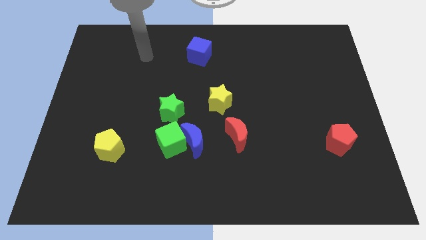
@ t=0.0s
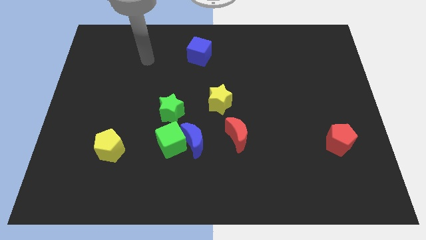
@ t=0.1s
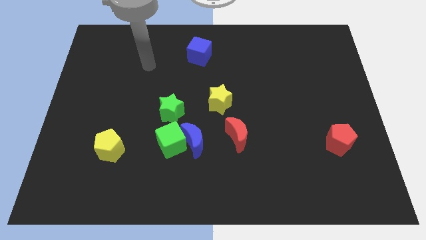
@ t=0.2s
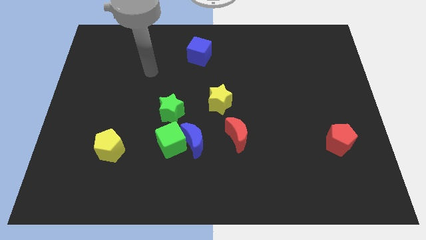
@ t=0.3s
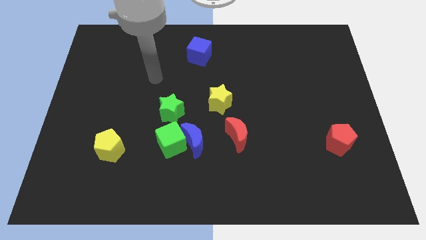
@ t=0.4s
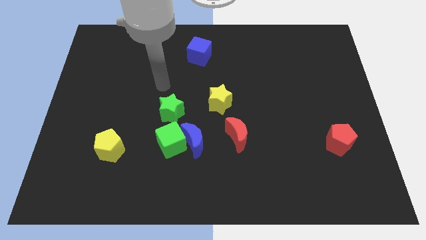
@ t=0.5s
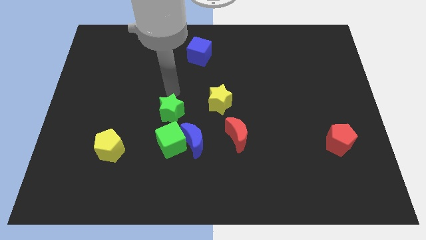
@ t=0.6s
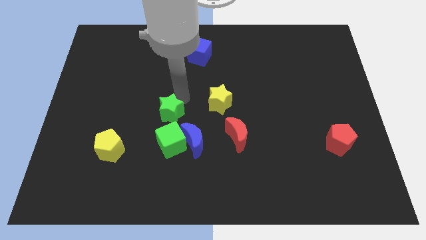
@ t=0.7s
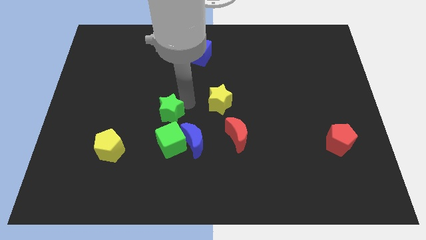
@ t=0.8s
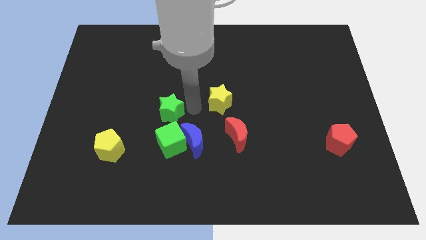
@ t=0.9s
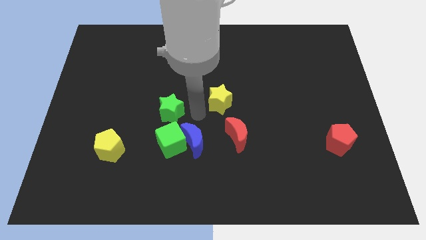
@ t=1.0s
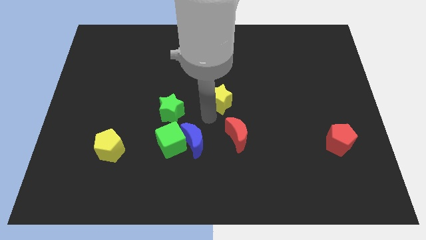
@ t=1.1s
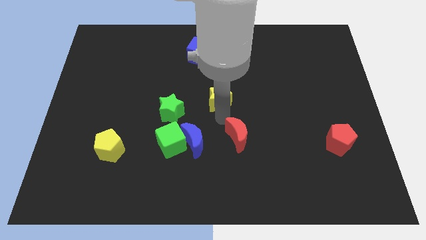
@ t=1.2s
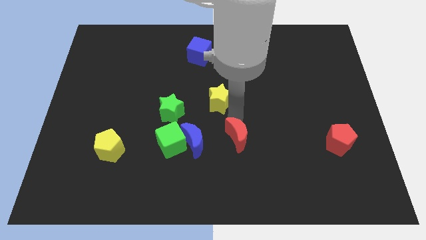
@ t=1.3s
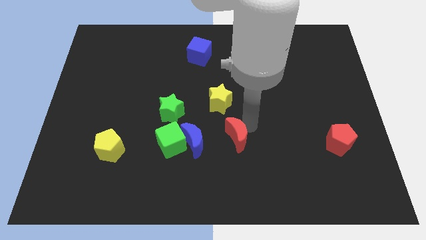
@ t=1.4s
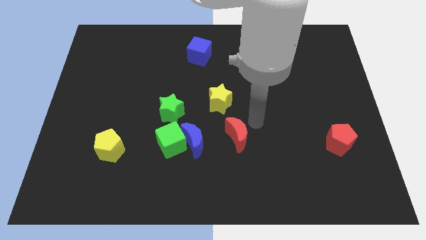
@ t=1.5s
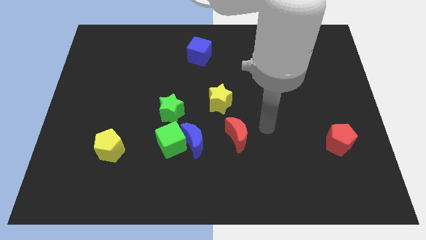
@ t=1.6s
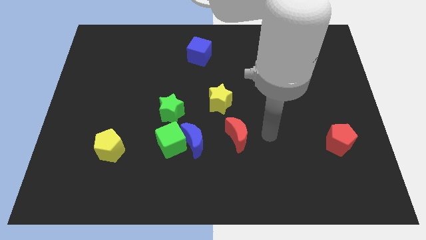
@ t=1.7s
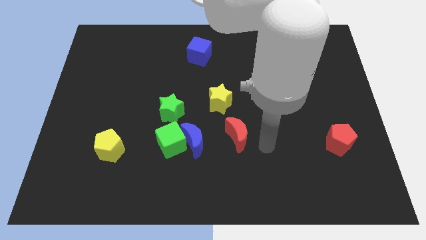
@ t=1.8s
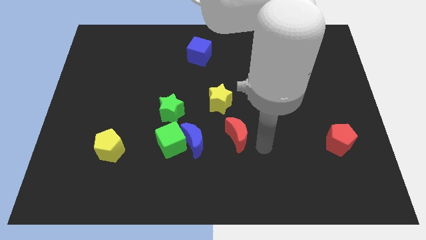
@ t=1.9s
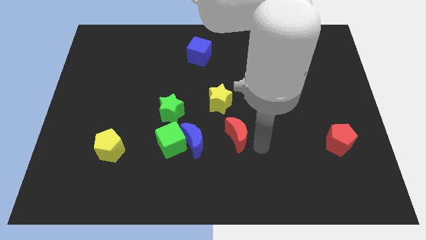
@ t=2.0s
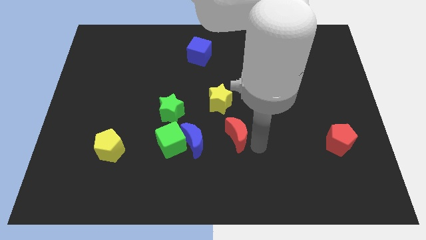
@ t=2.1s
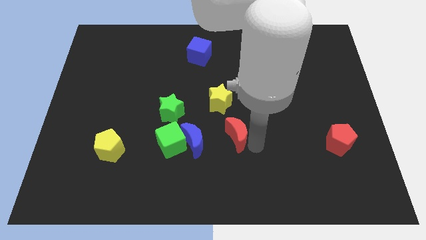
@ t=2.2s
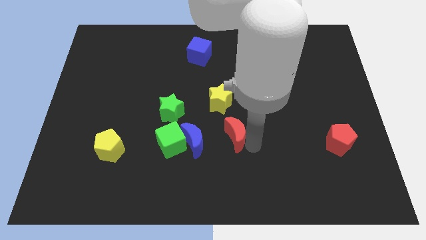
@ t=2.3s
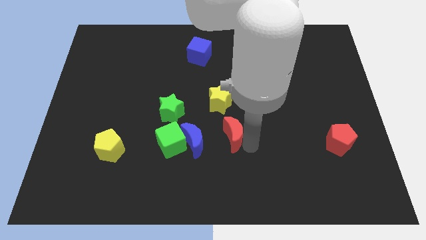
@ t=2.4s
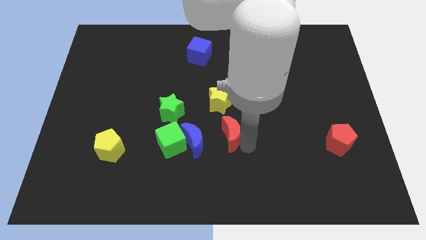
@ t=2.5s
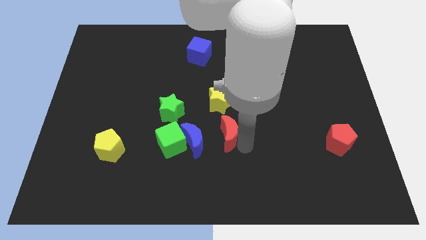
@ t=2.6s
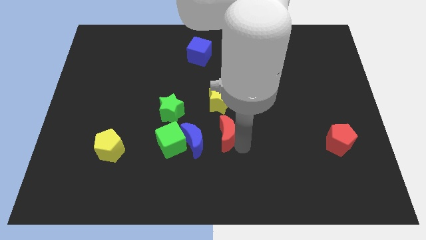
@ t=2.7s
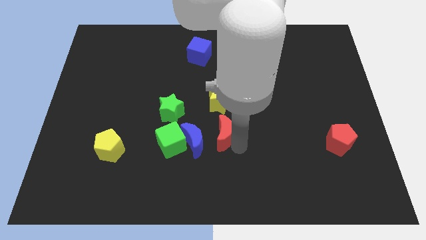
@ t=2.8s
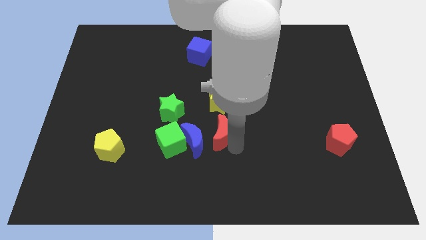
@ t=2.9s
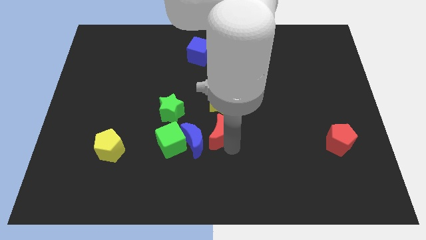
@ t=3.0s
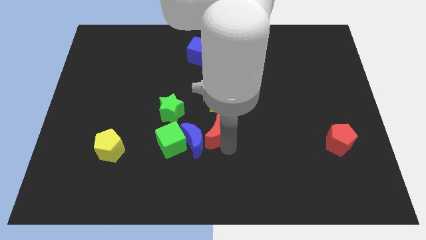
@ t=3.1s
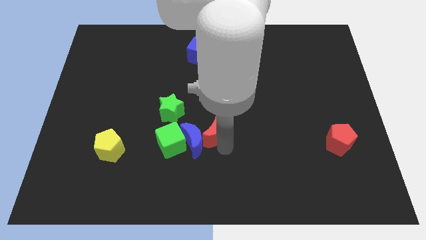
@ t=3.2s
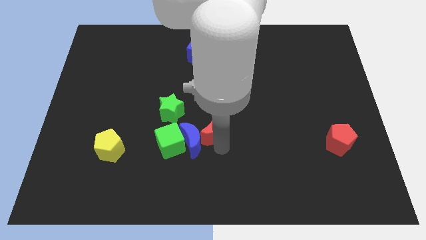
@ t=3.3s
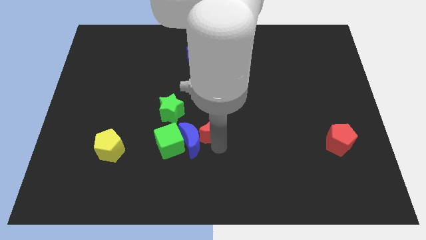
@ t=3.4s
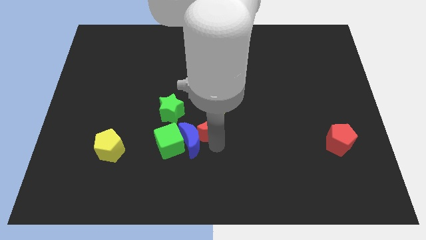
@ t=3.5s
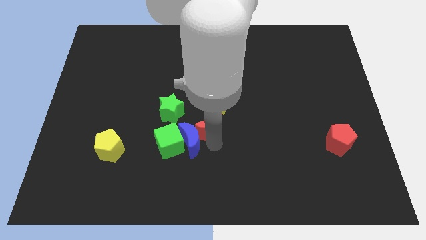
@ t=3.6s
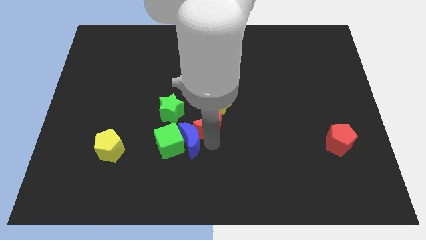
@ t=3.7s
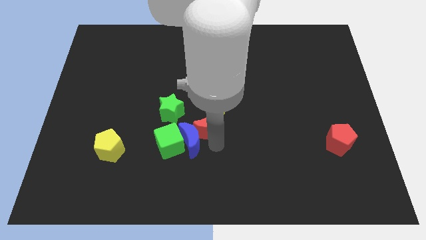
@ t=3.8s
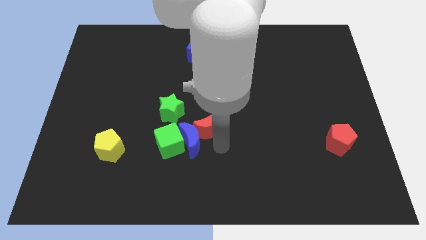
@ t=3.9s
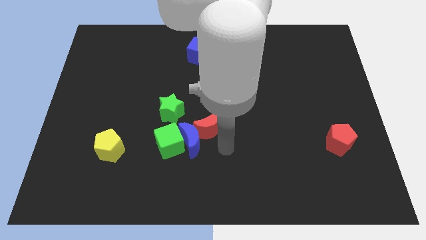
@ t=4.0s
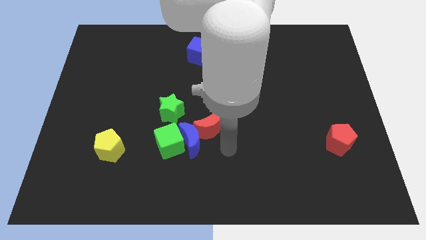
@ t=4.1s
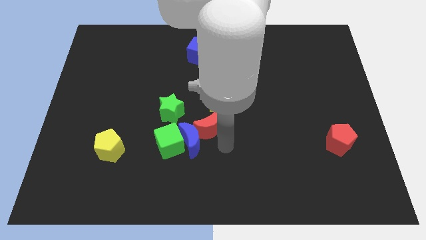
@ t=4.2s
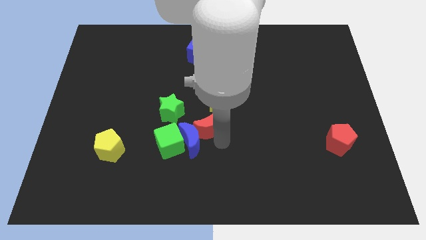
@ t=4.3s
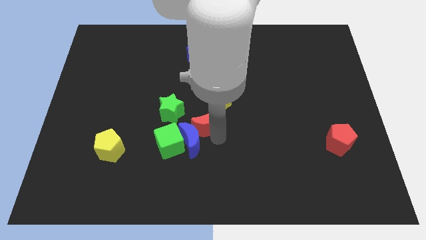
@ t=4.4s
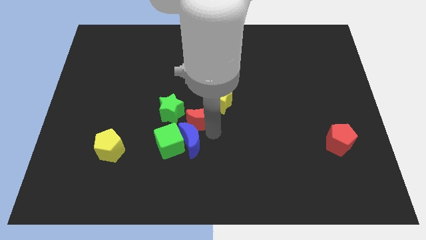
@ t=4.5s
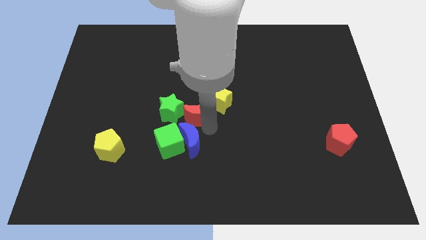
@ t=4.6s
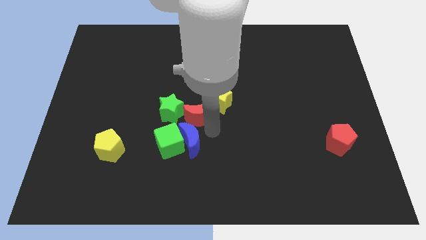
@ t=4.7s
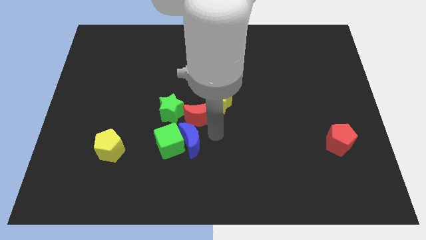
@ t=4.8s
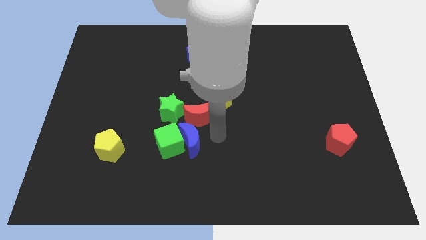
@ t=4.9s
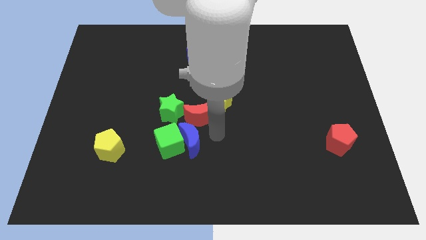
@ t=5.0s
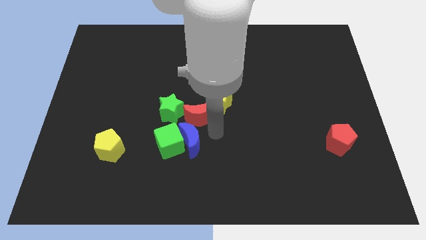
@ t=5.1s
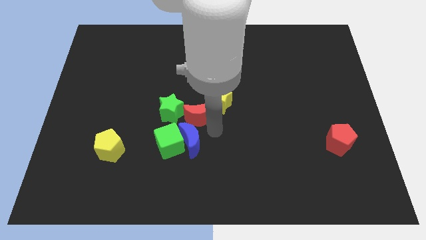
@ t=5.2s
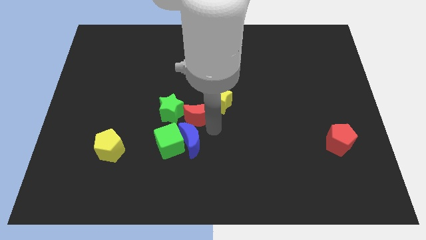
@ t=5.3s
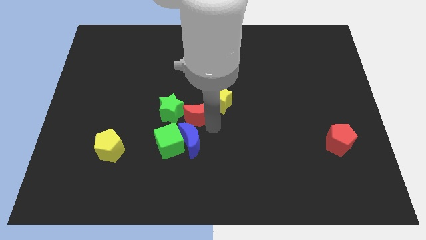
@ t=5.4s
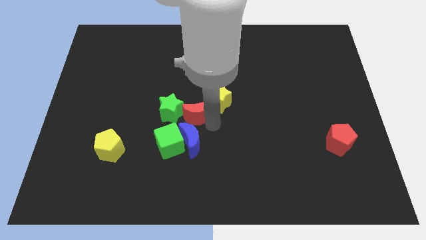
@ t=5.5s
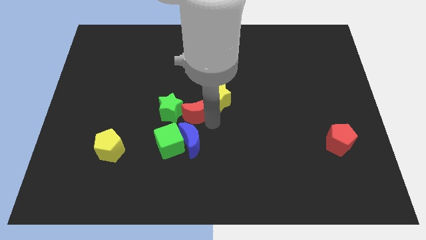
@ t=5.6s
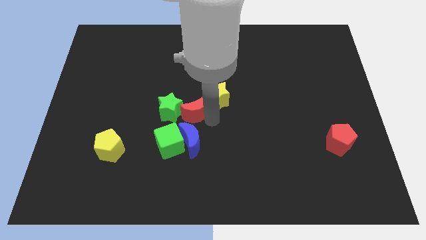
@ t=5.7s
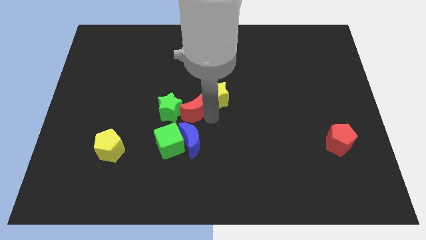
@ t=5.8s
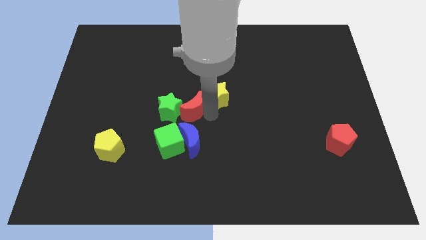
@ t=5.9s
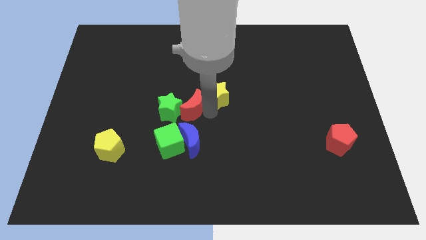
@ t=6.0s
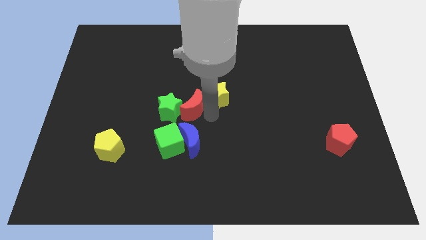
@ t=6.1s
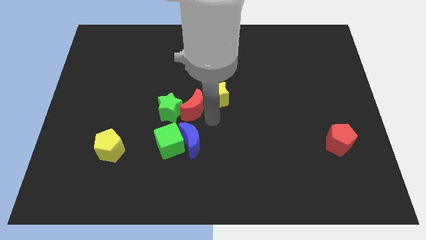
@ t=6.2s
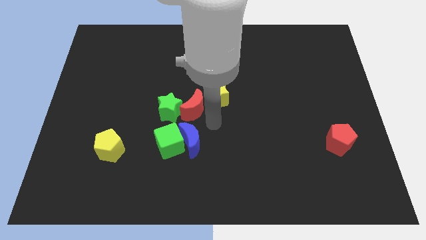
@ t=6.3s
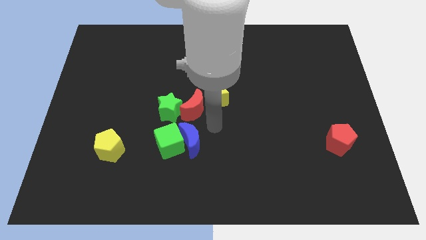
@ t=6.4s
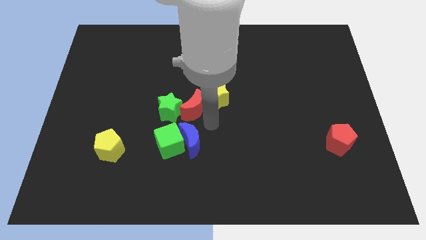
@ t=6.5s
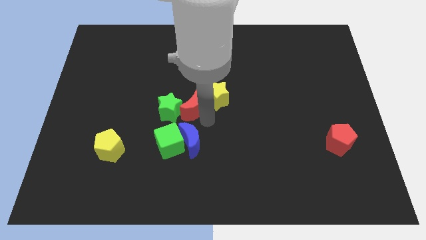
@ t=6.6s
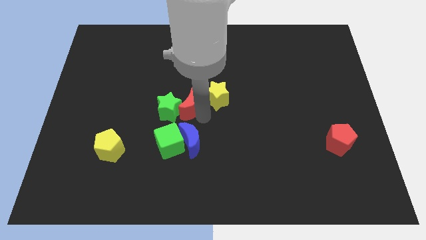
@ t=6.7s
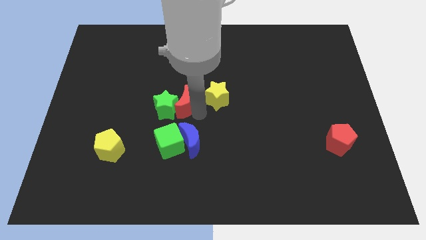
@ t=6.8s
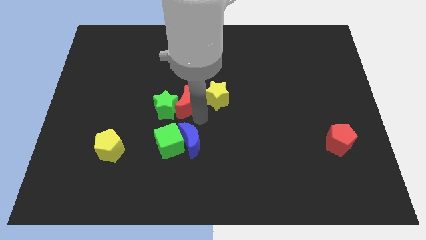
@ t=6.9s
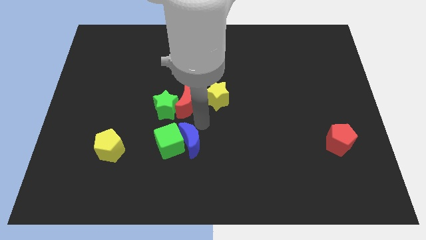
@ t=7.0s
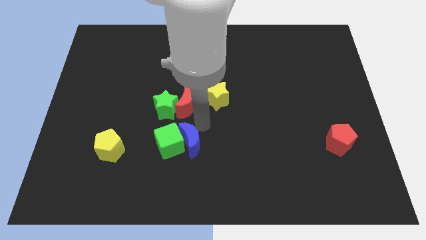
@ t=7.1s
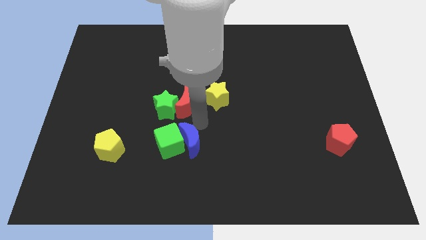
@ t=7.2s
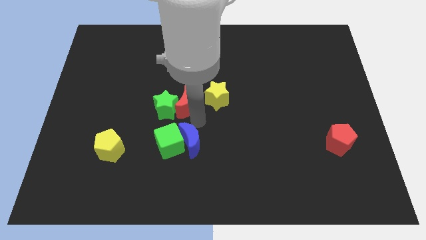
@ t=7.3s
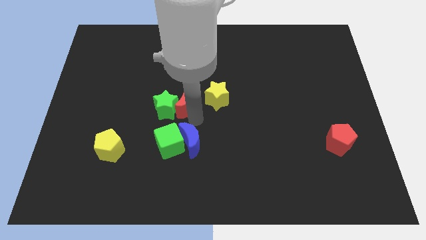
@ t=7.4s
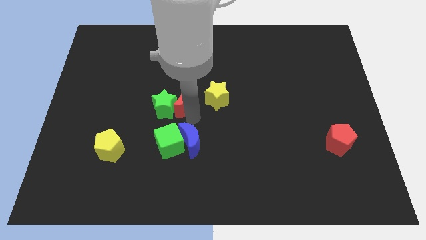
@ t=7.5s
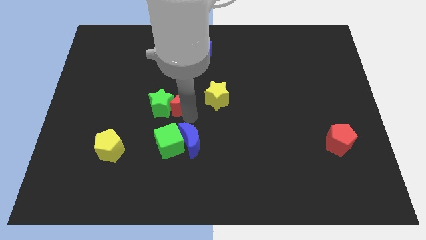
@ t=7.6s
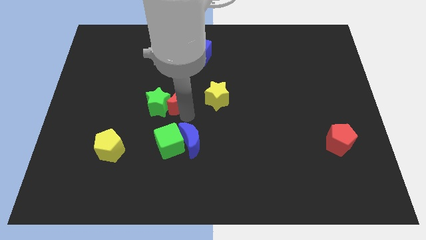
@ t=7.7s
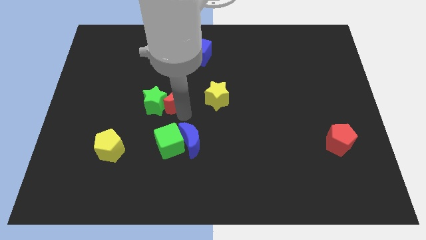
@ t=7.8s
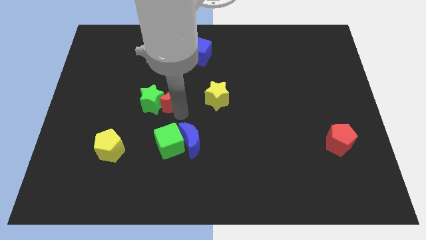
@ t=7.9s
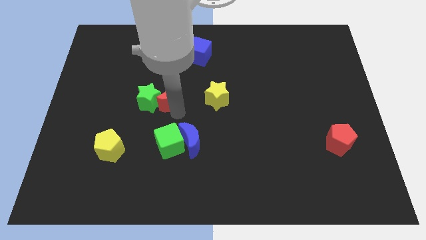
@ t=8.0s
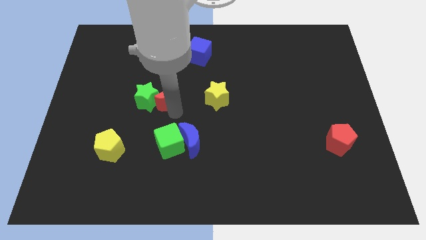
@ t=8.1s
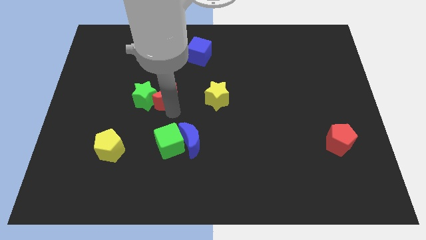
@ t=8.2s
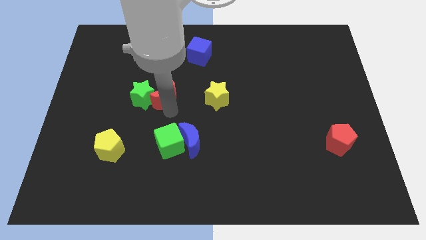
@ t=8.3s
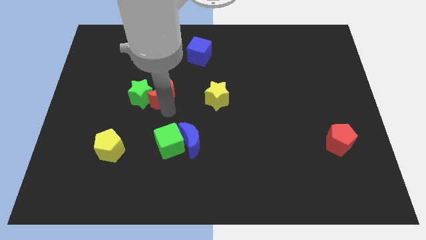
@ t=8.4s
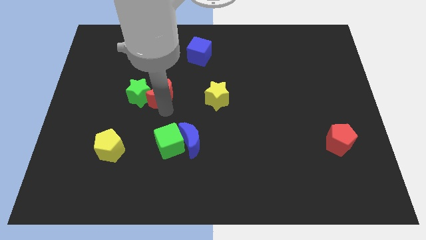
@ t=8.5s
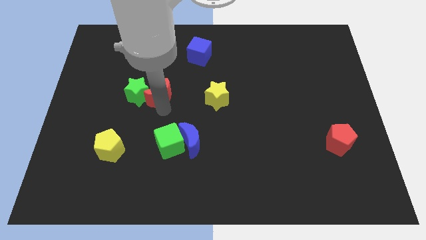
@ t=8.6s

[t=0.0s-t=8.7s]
push the red moon upwards and then to the left
